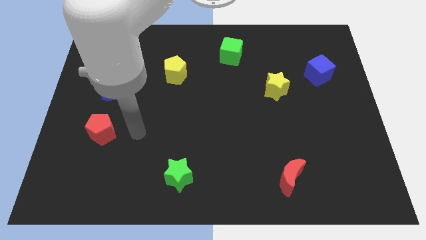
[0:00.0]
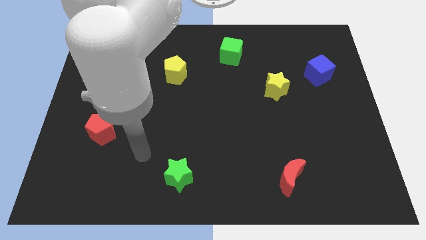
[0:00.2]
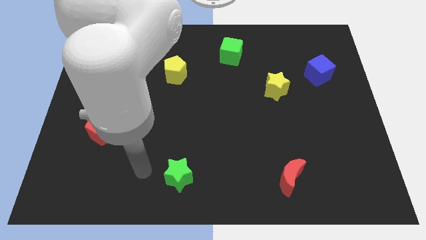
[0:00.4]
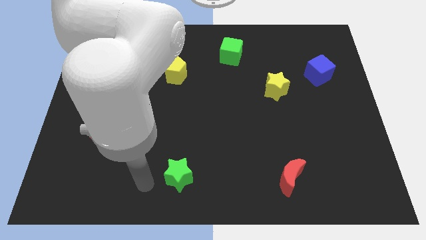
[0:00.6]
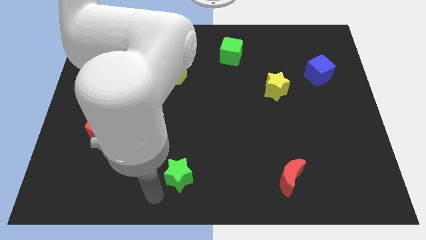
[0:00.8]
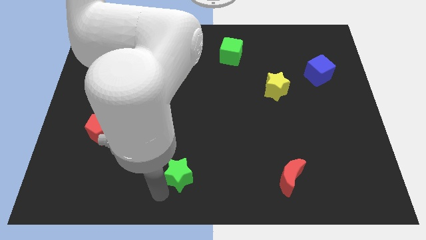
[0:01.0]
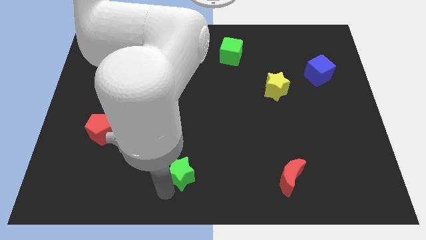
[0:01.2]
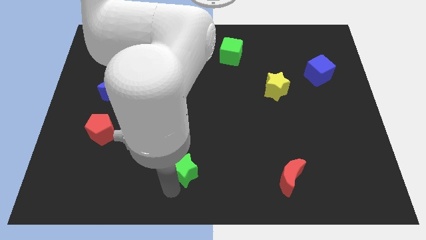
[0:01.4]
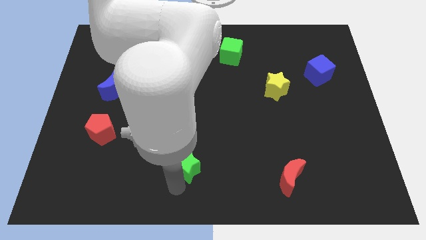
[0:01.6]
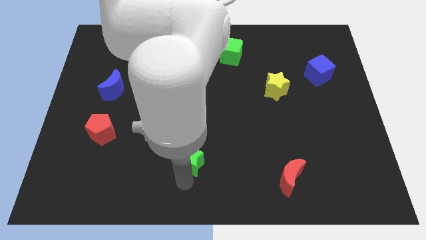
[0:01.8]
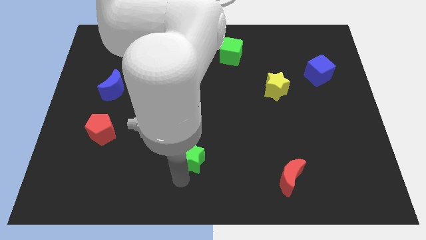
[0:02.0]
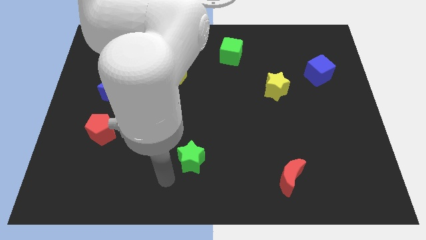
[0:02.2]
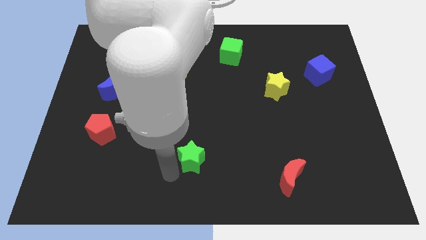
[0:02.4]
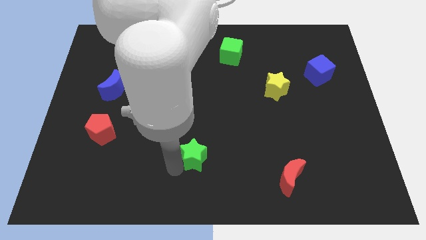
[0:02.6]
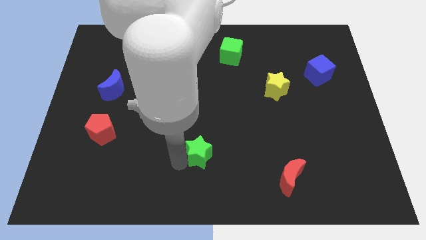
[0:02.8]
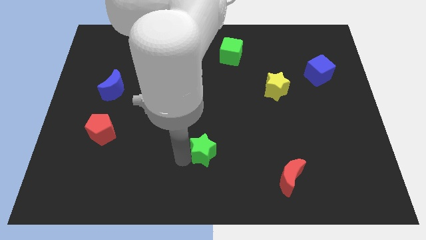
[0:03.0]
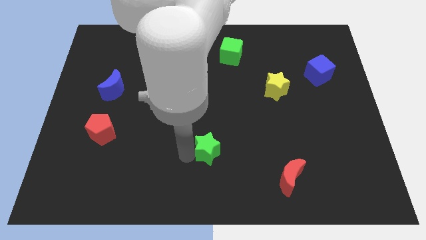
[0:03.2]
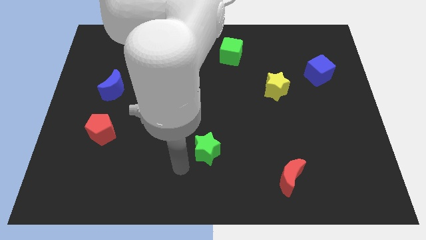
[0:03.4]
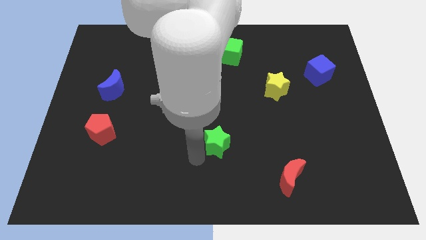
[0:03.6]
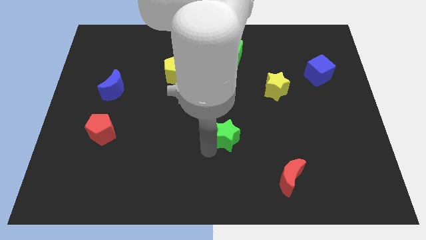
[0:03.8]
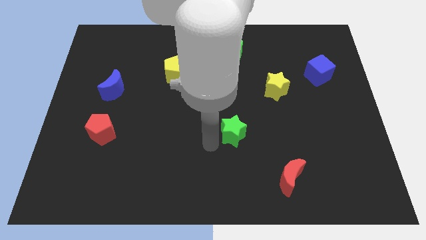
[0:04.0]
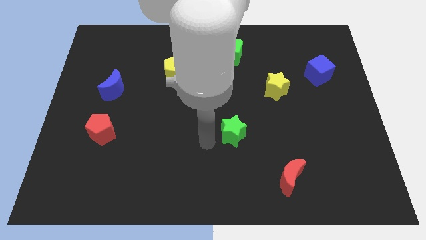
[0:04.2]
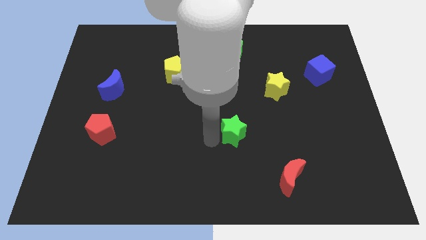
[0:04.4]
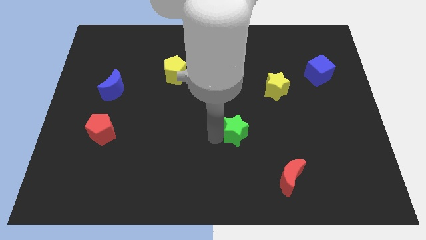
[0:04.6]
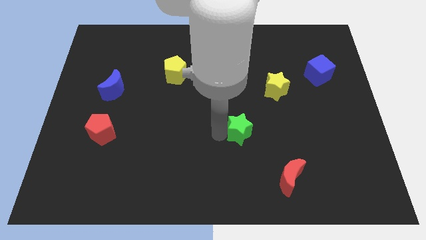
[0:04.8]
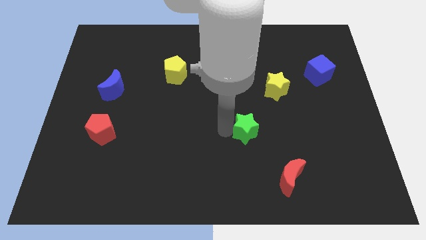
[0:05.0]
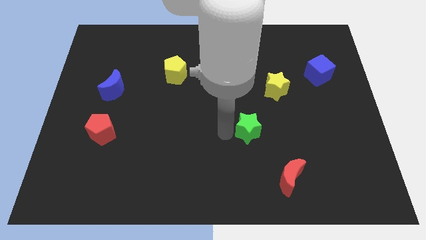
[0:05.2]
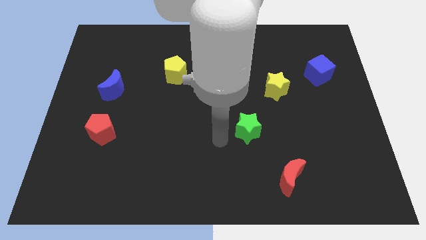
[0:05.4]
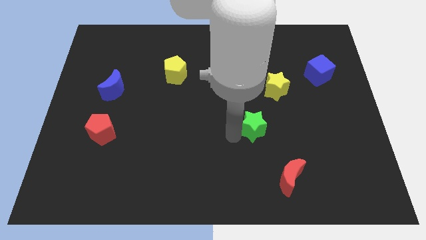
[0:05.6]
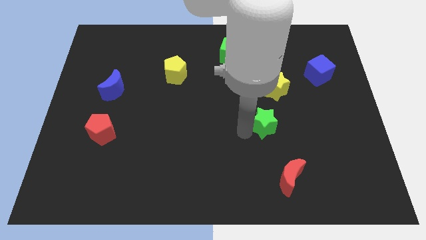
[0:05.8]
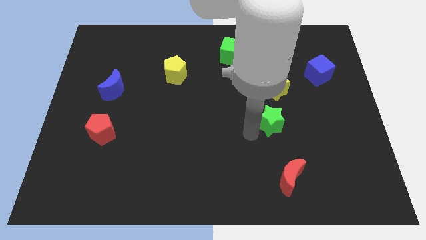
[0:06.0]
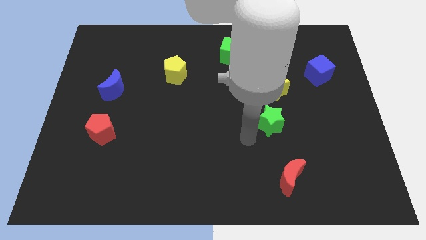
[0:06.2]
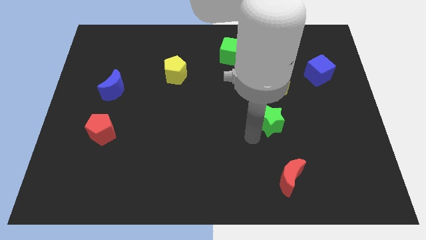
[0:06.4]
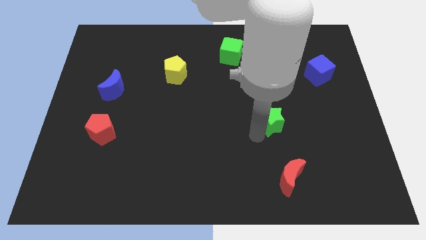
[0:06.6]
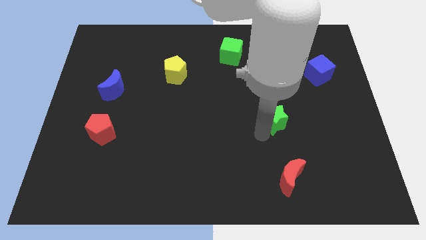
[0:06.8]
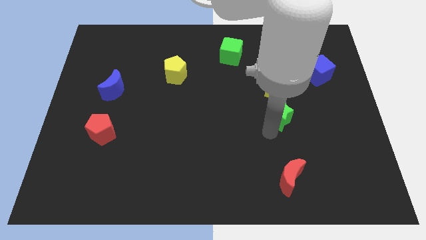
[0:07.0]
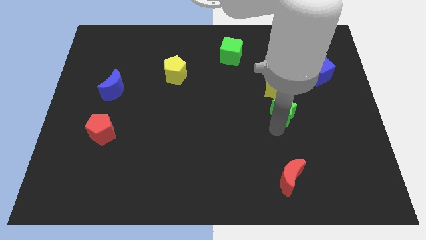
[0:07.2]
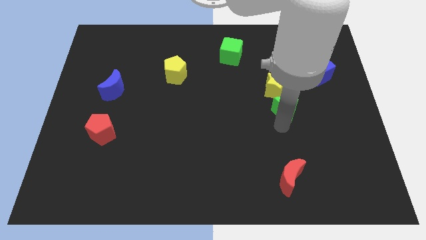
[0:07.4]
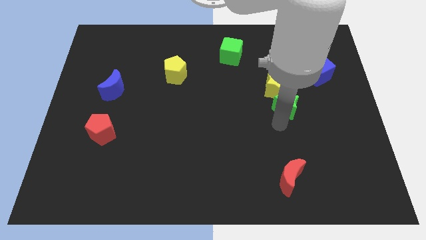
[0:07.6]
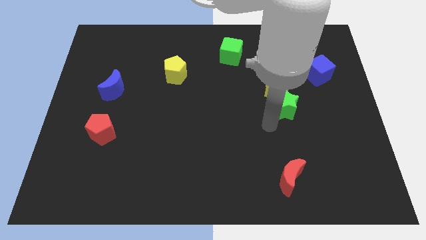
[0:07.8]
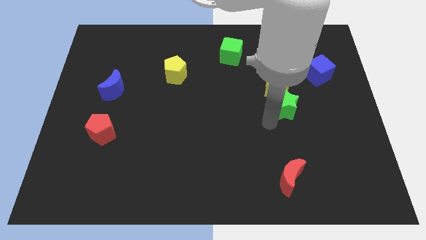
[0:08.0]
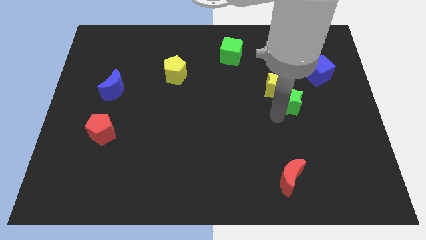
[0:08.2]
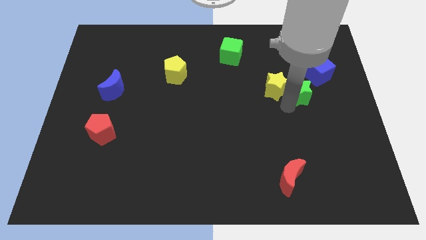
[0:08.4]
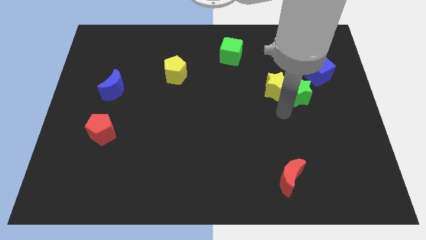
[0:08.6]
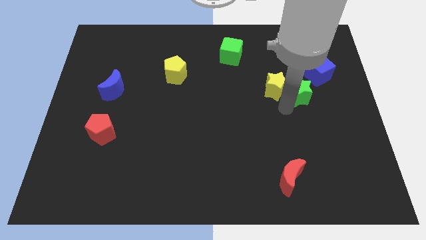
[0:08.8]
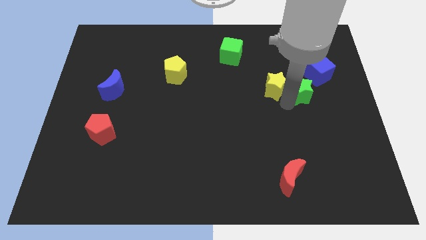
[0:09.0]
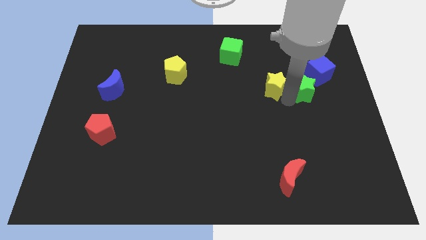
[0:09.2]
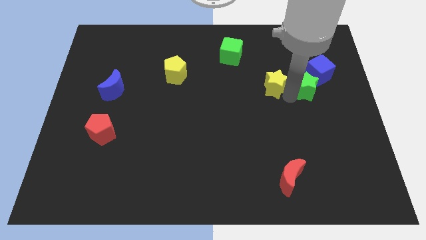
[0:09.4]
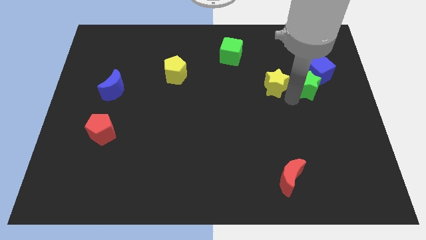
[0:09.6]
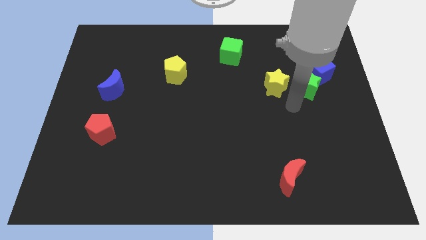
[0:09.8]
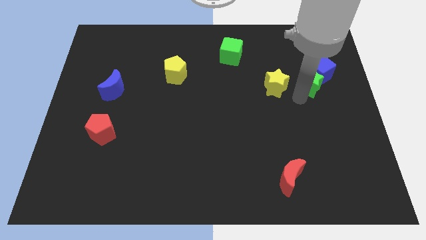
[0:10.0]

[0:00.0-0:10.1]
put the green star towards the blue cube

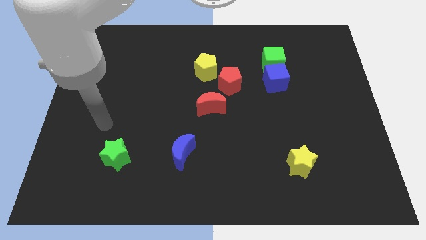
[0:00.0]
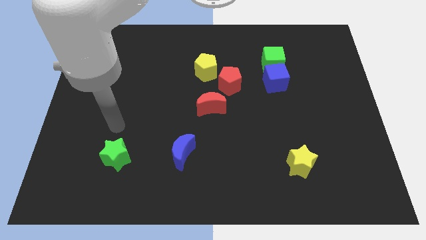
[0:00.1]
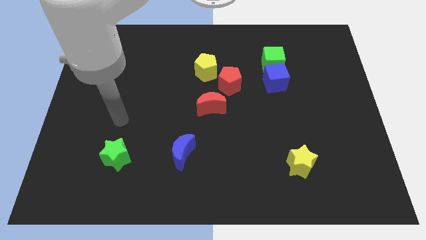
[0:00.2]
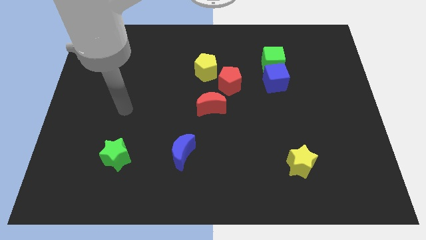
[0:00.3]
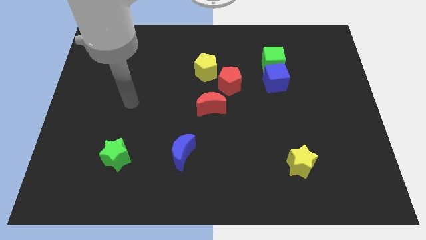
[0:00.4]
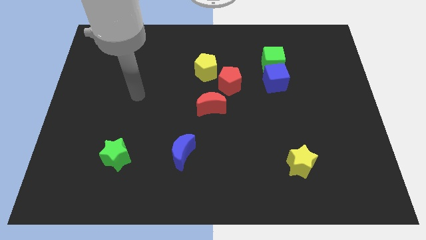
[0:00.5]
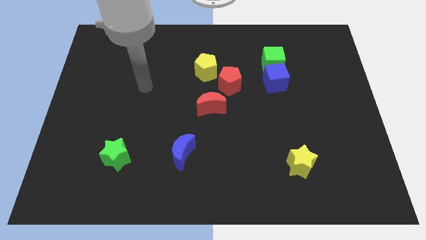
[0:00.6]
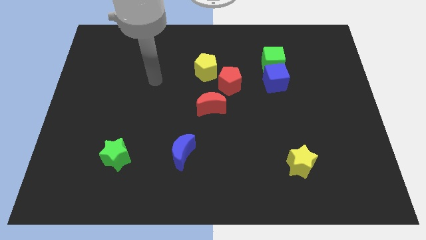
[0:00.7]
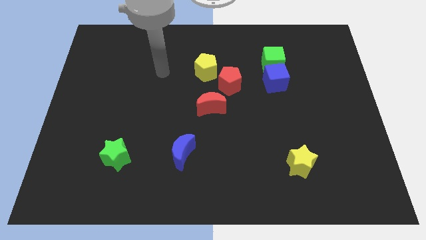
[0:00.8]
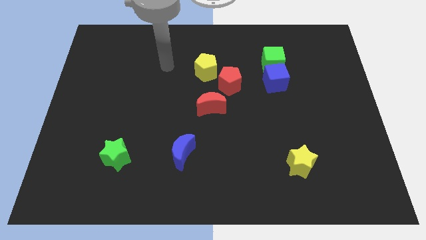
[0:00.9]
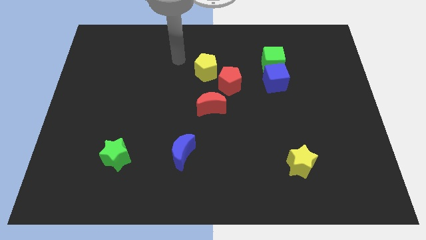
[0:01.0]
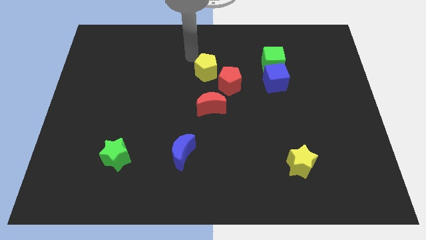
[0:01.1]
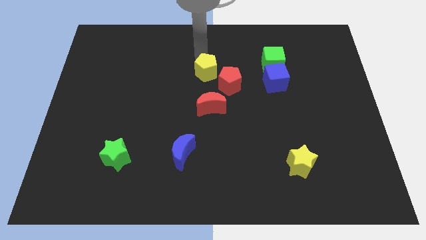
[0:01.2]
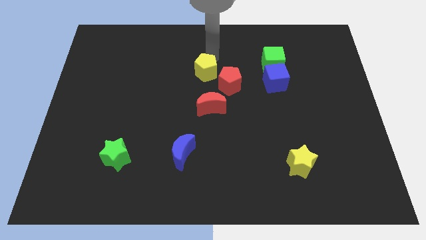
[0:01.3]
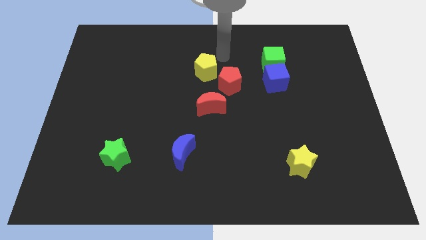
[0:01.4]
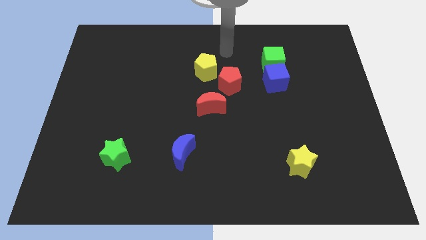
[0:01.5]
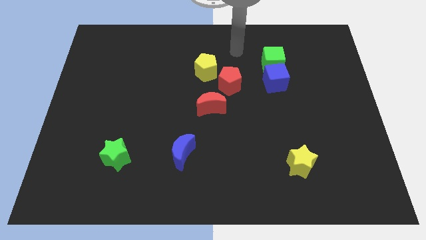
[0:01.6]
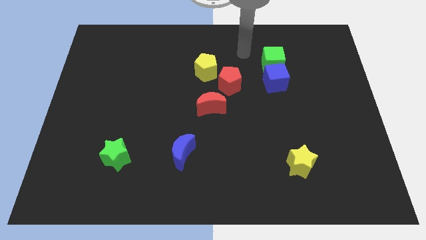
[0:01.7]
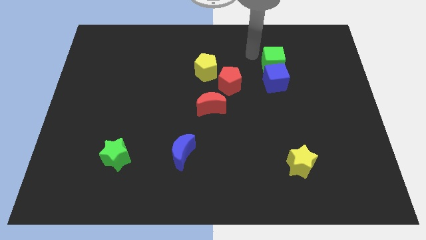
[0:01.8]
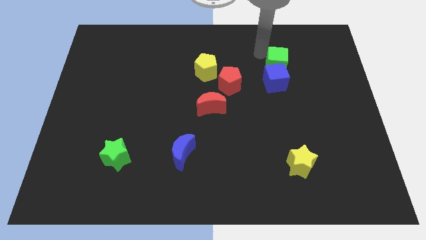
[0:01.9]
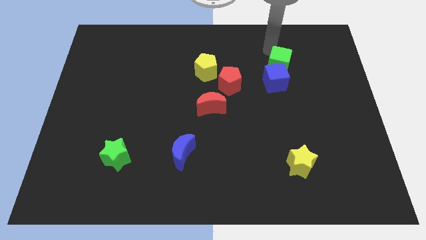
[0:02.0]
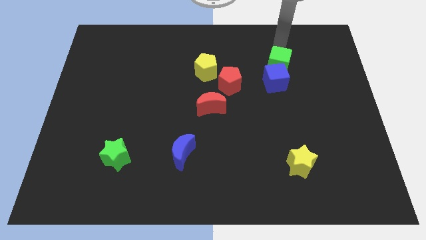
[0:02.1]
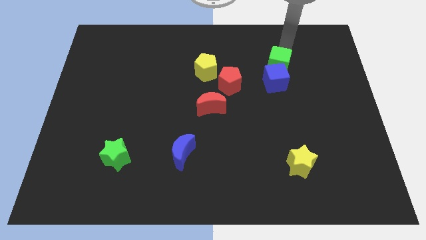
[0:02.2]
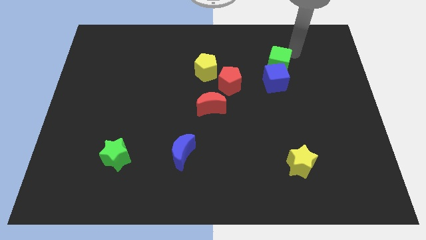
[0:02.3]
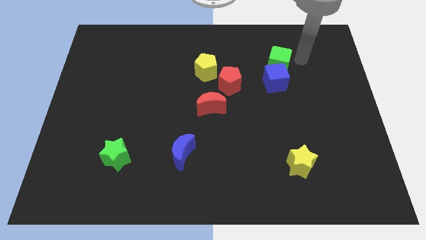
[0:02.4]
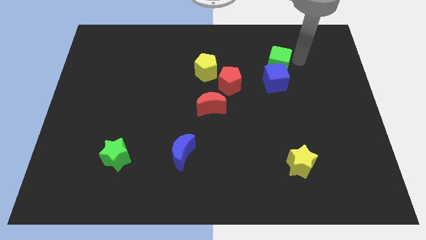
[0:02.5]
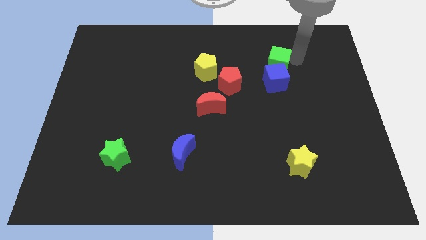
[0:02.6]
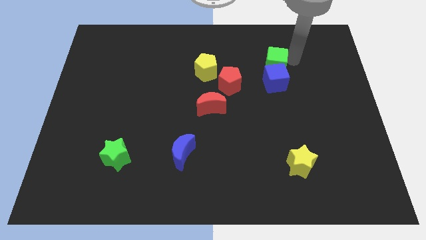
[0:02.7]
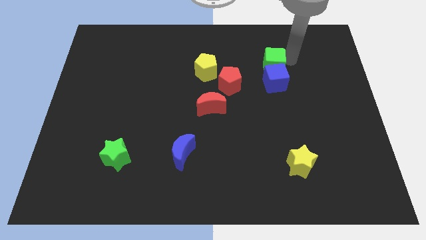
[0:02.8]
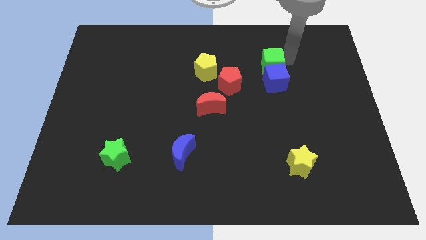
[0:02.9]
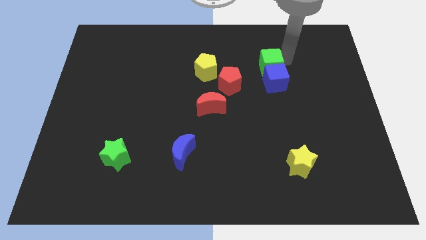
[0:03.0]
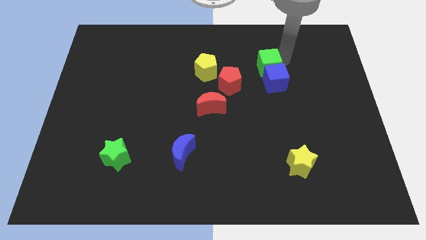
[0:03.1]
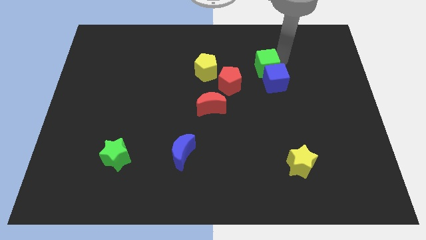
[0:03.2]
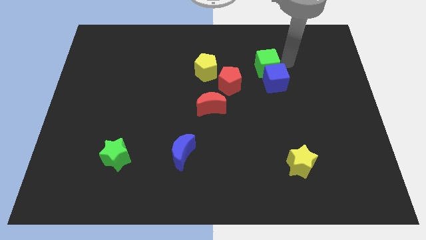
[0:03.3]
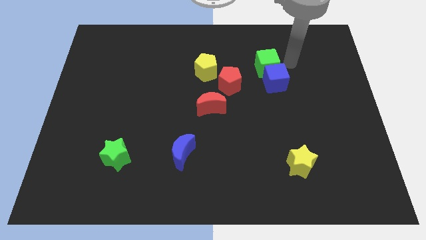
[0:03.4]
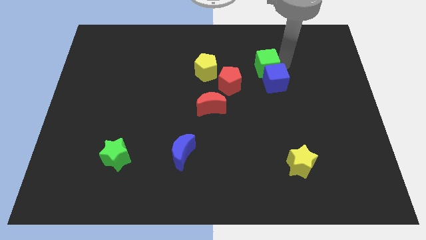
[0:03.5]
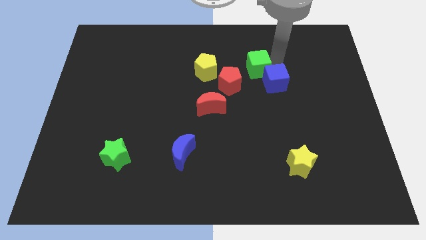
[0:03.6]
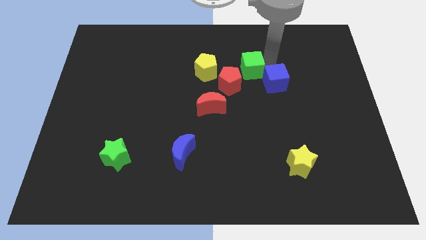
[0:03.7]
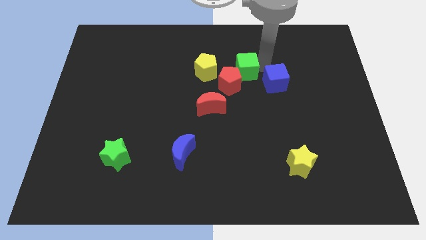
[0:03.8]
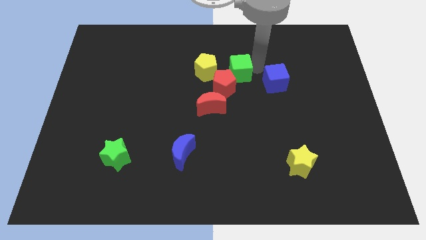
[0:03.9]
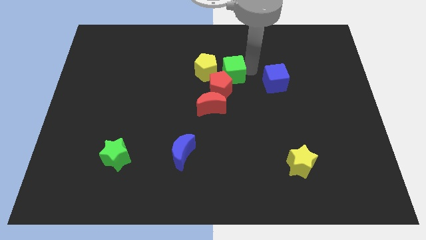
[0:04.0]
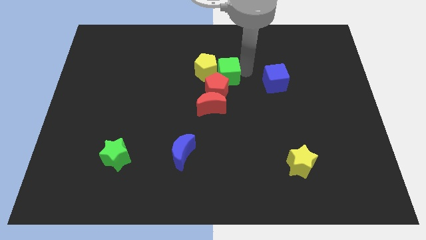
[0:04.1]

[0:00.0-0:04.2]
move the green cube towards the yellow pentagon
